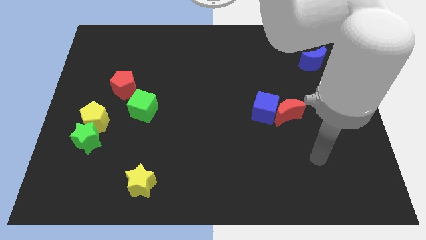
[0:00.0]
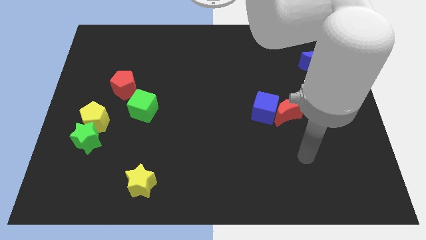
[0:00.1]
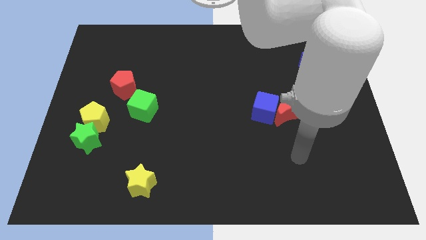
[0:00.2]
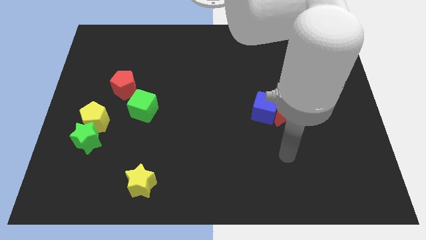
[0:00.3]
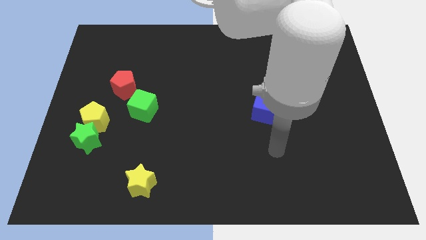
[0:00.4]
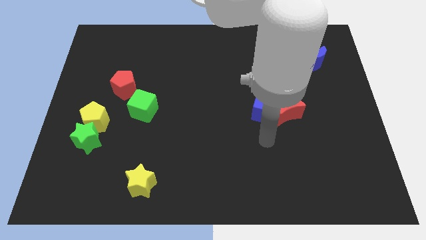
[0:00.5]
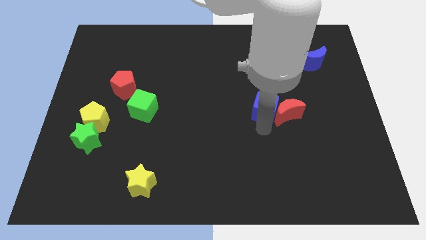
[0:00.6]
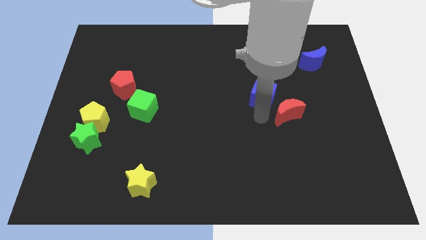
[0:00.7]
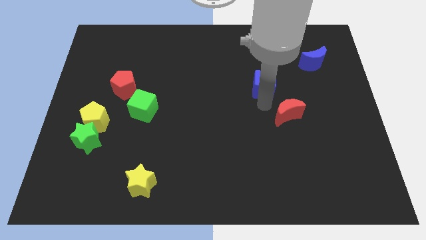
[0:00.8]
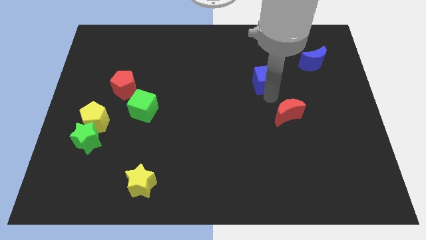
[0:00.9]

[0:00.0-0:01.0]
separate the red moon from the blue cube

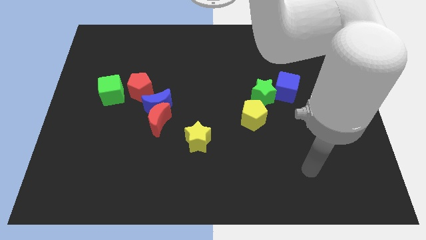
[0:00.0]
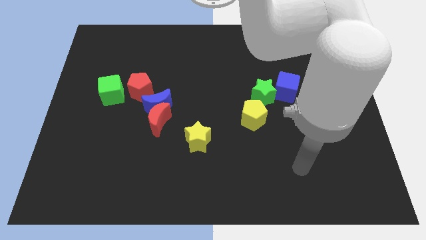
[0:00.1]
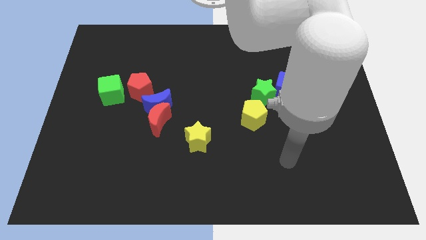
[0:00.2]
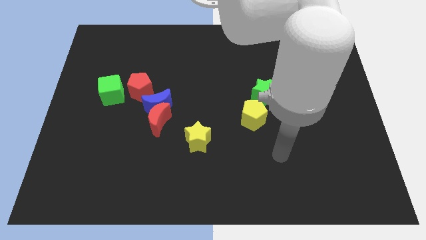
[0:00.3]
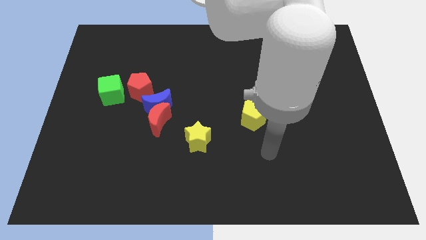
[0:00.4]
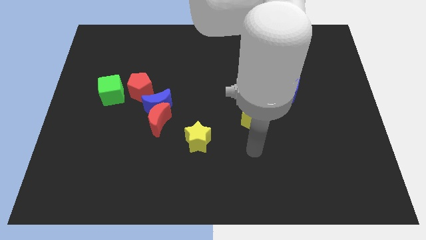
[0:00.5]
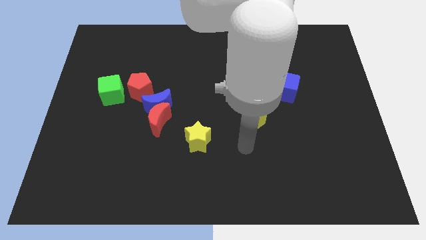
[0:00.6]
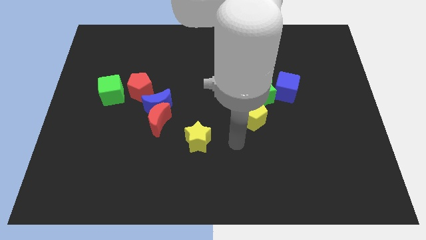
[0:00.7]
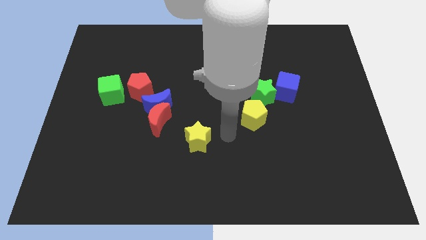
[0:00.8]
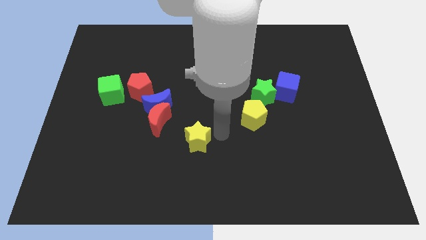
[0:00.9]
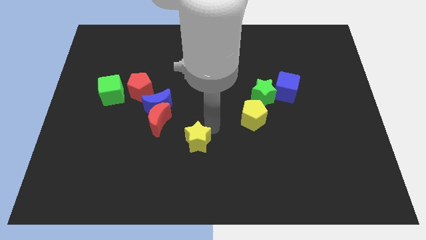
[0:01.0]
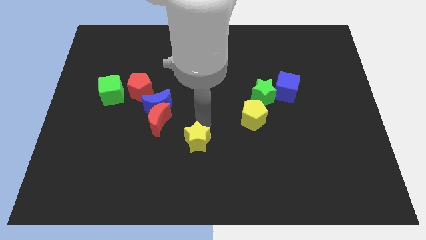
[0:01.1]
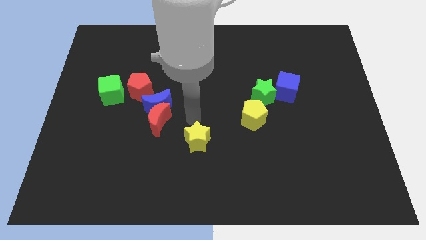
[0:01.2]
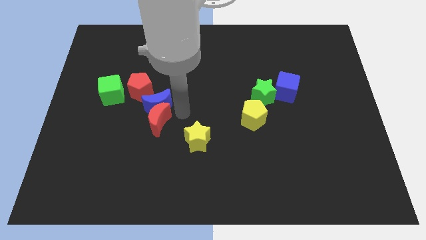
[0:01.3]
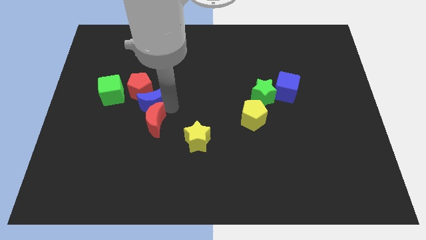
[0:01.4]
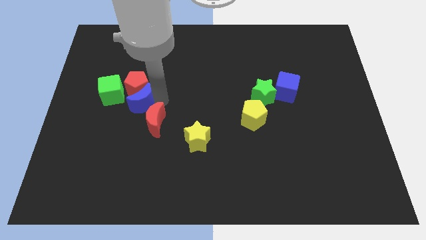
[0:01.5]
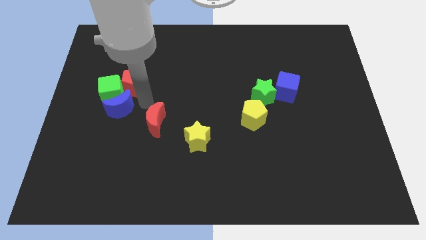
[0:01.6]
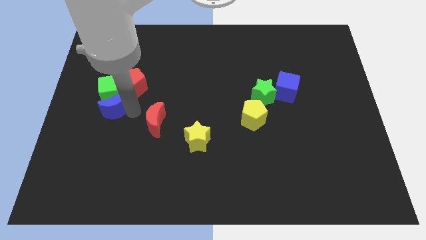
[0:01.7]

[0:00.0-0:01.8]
pull the red moon apart from the blue moon

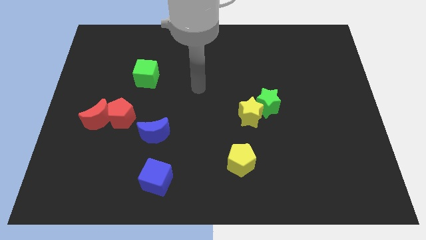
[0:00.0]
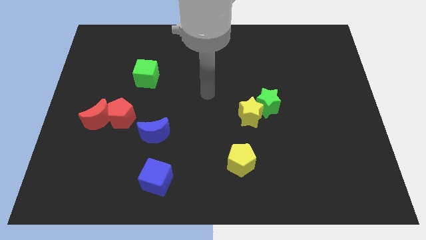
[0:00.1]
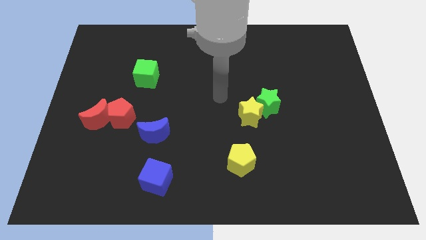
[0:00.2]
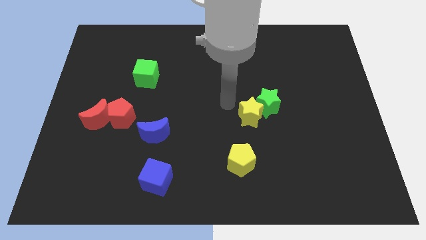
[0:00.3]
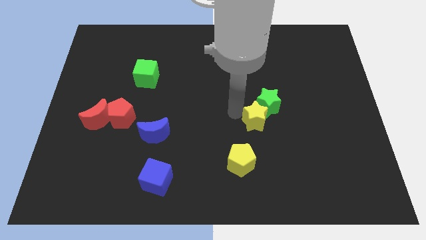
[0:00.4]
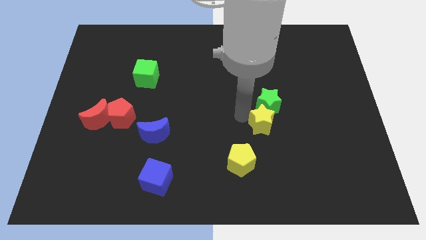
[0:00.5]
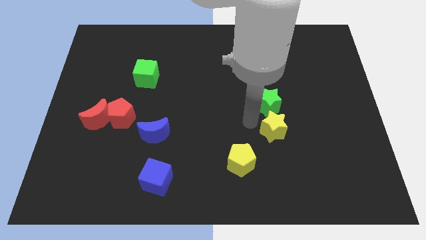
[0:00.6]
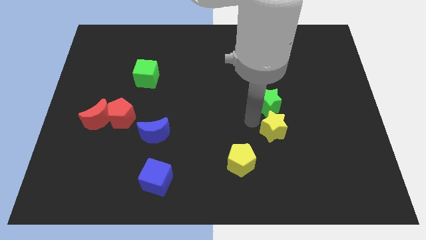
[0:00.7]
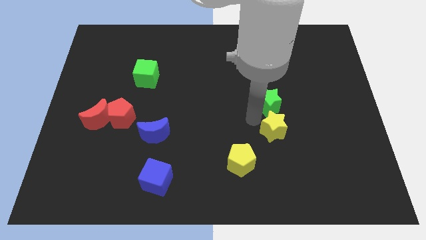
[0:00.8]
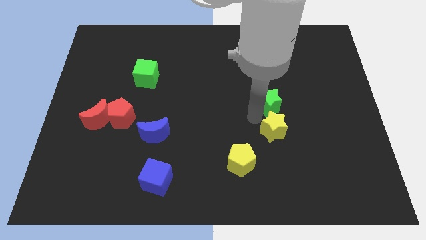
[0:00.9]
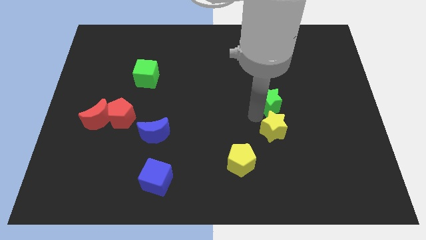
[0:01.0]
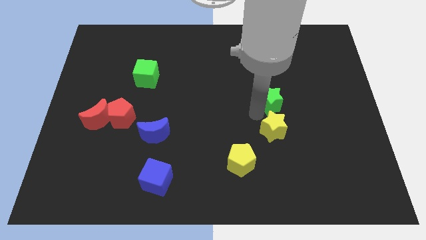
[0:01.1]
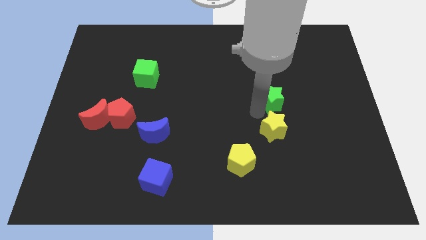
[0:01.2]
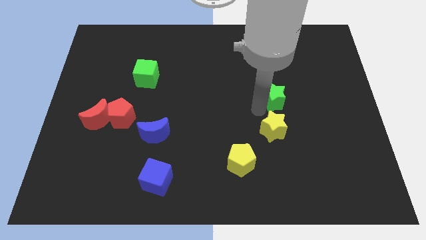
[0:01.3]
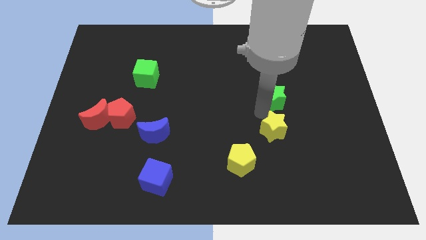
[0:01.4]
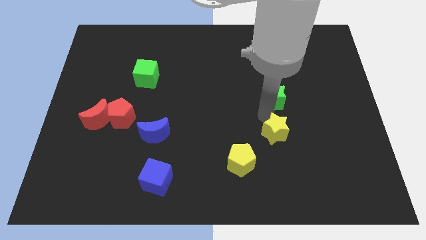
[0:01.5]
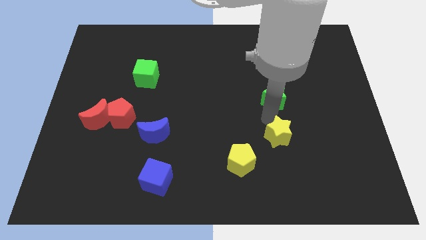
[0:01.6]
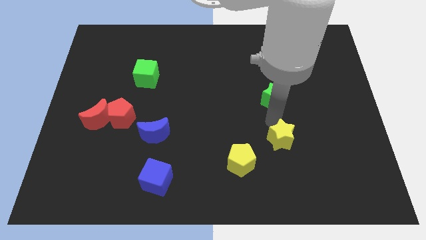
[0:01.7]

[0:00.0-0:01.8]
move the green star away from the yellow star

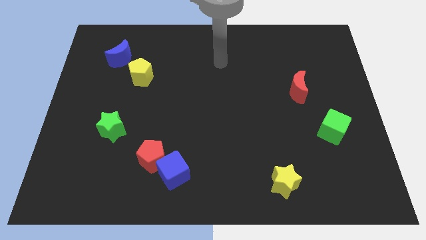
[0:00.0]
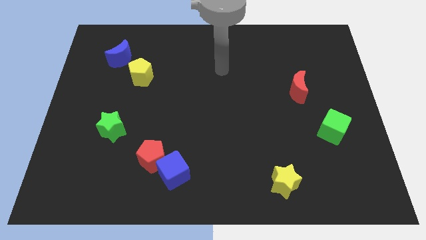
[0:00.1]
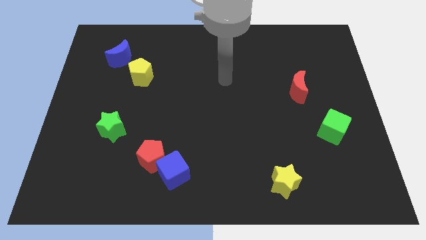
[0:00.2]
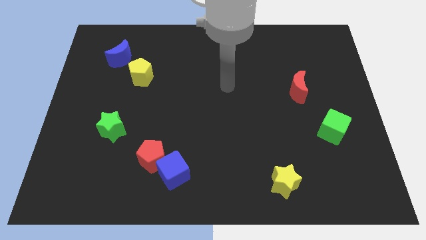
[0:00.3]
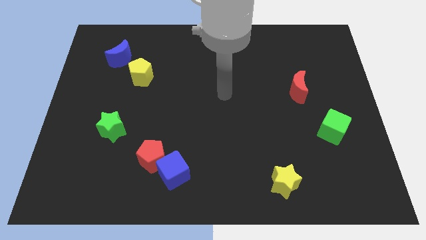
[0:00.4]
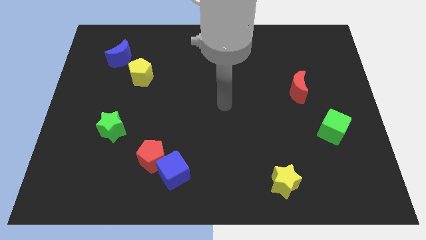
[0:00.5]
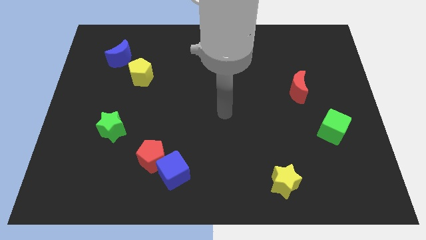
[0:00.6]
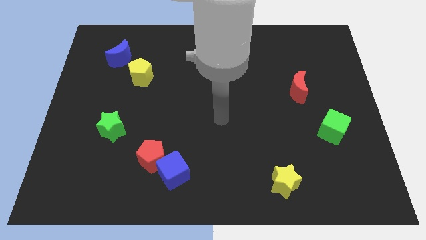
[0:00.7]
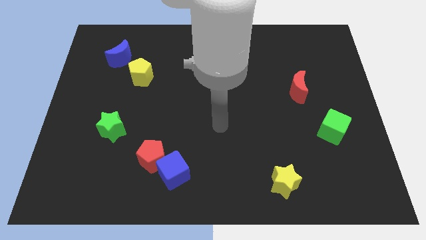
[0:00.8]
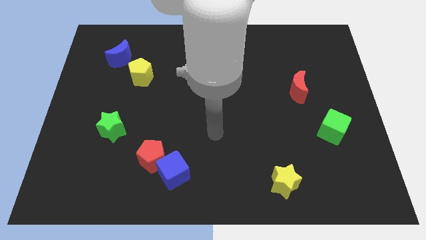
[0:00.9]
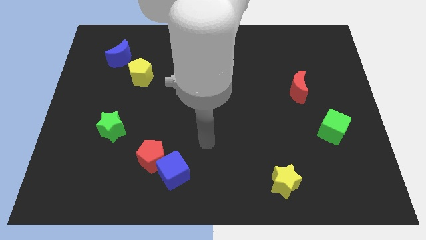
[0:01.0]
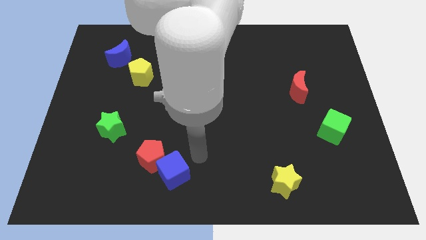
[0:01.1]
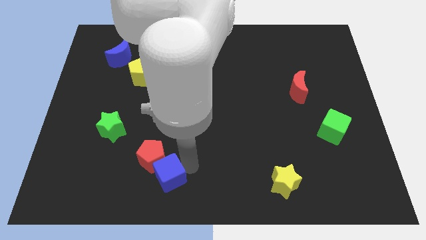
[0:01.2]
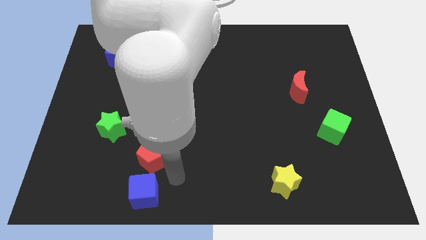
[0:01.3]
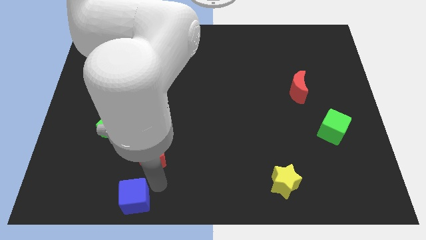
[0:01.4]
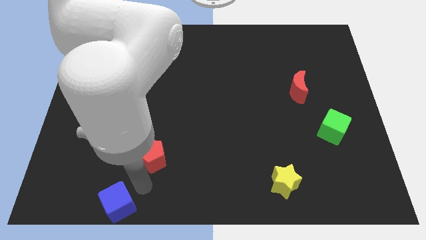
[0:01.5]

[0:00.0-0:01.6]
move the red pentagon away from the blue cube

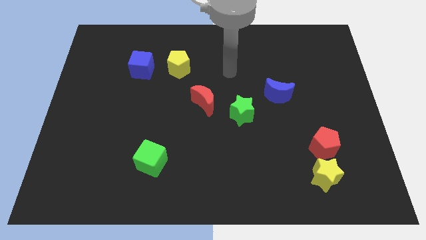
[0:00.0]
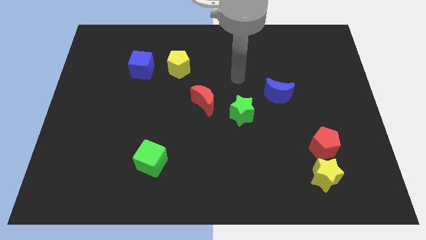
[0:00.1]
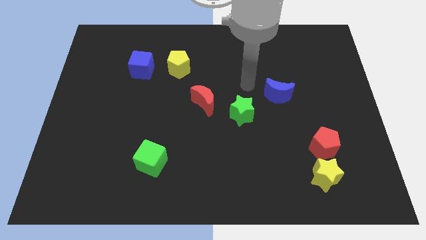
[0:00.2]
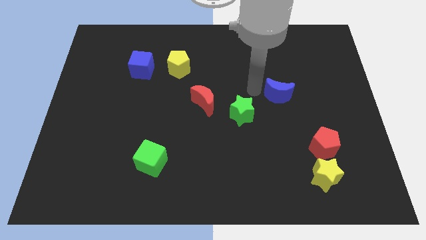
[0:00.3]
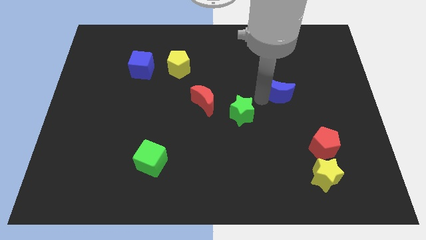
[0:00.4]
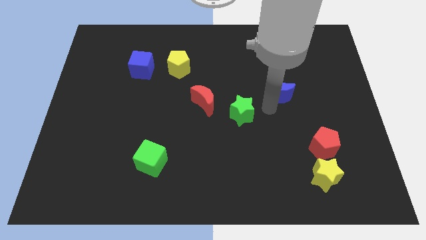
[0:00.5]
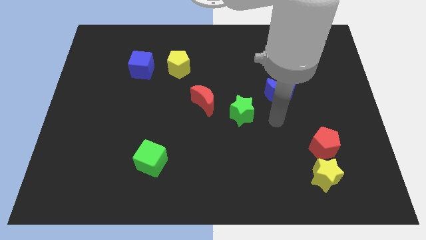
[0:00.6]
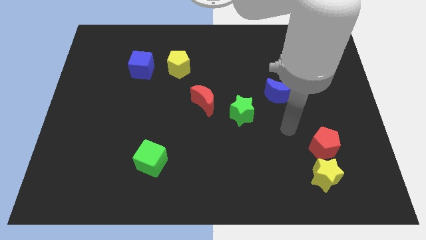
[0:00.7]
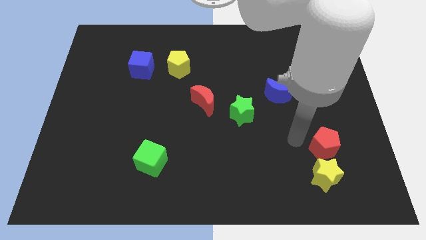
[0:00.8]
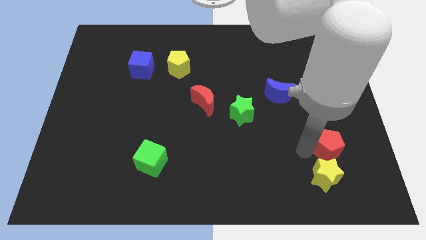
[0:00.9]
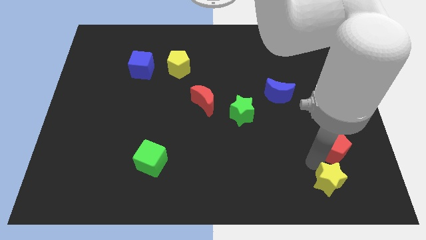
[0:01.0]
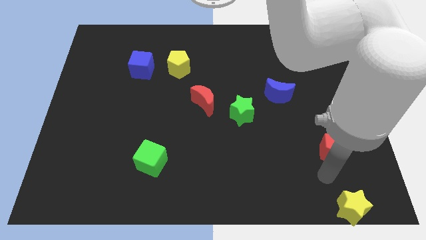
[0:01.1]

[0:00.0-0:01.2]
pull the red pentagon apart from the yellow star

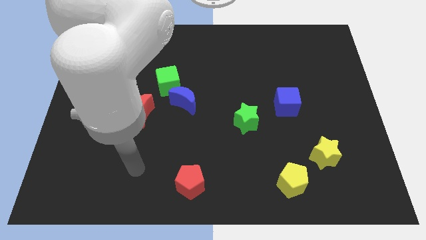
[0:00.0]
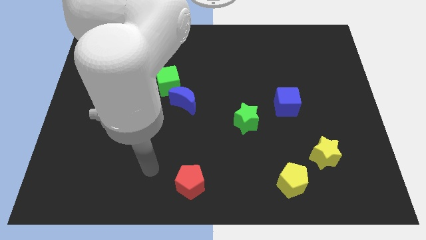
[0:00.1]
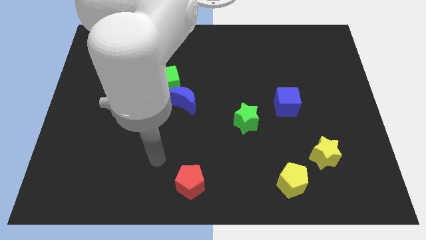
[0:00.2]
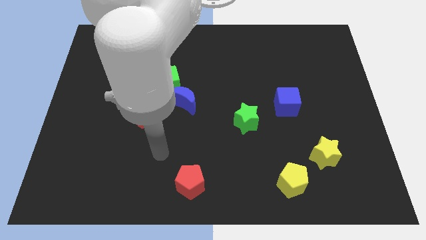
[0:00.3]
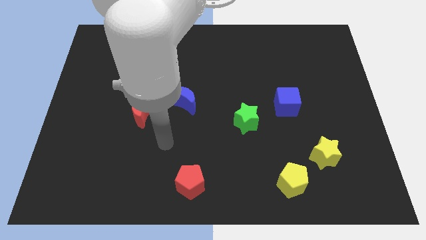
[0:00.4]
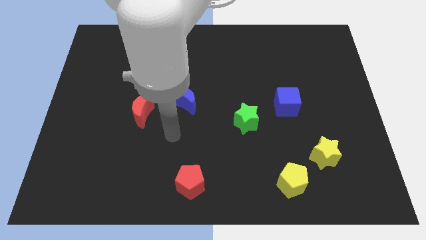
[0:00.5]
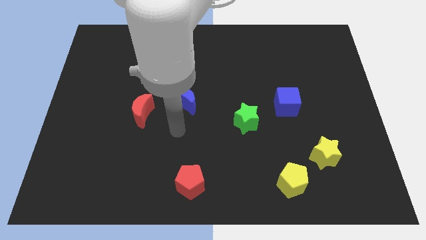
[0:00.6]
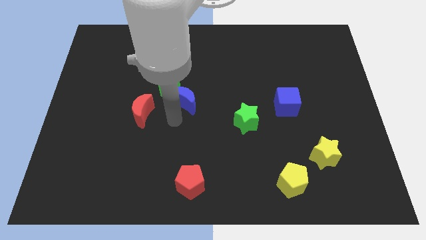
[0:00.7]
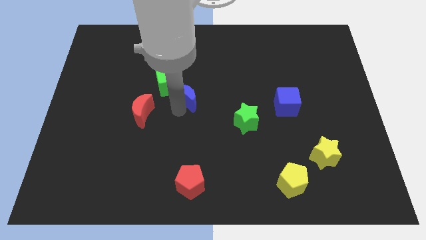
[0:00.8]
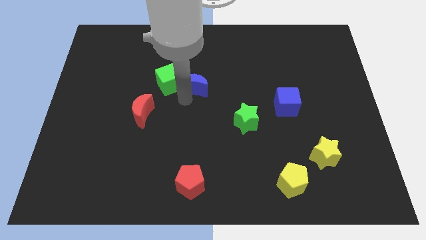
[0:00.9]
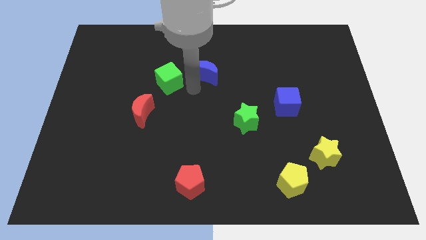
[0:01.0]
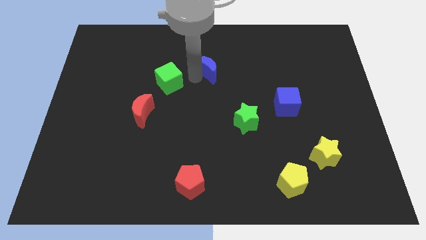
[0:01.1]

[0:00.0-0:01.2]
separate the green cube from the blue moon

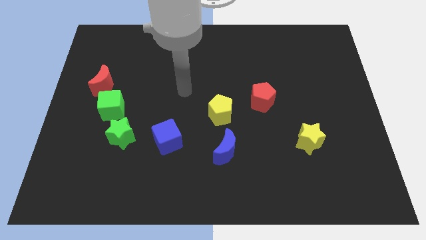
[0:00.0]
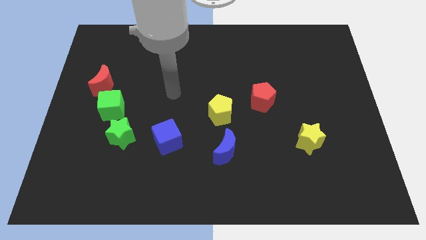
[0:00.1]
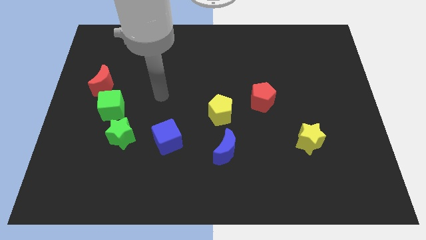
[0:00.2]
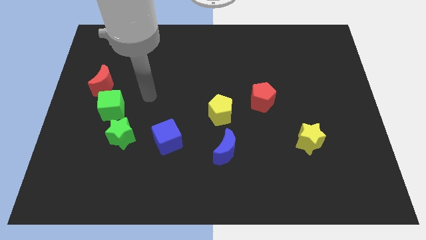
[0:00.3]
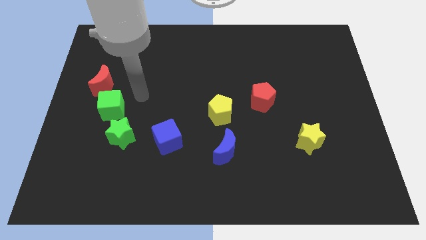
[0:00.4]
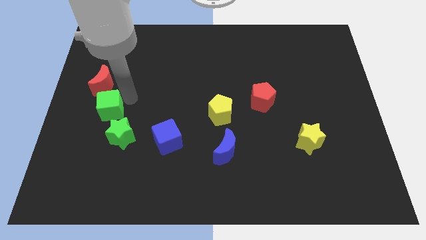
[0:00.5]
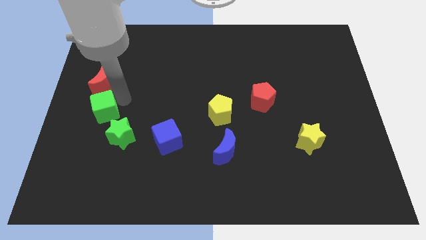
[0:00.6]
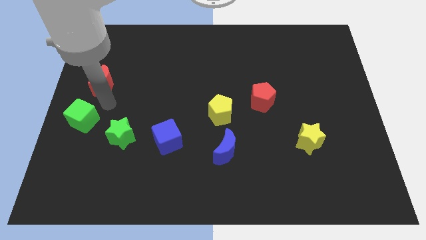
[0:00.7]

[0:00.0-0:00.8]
separate the red moon from the green cube
